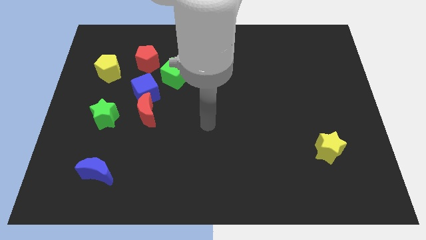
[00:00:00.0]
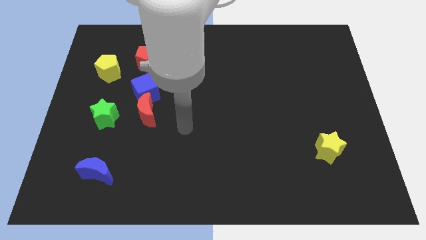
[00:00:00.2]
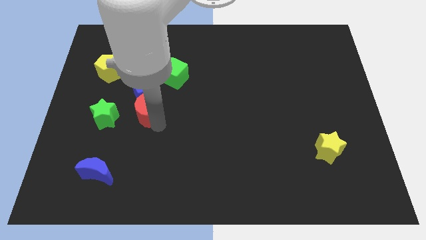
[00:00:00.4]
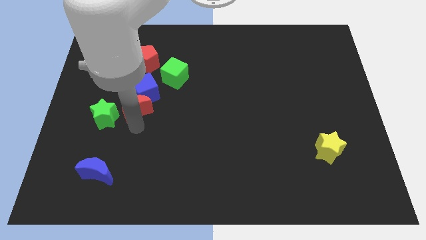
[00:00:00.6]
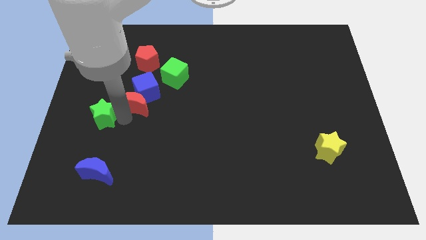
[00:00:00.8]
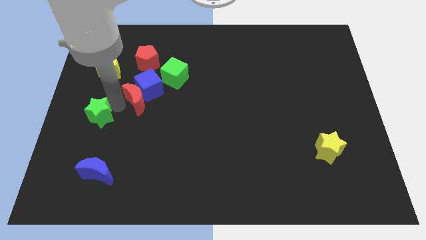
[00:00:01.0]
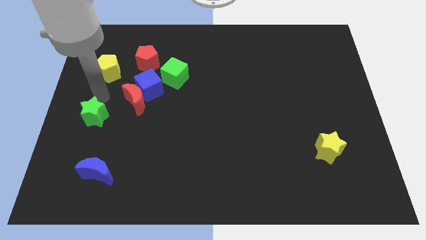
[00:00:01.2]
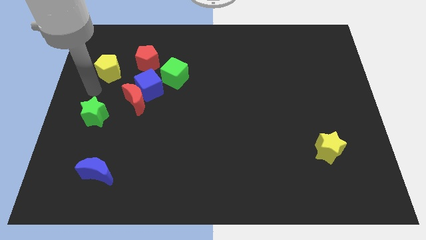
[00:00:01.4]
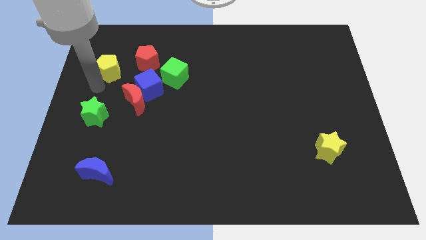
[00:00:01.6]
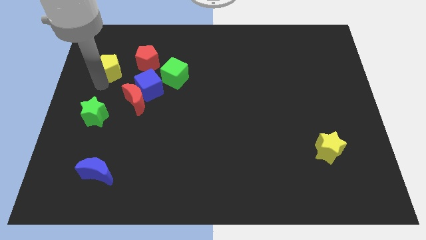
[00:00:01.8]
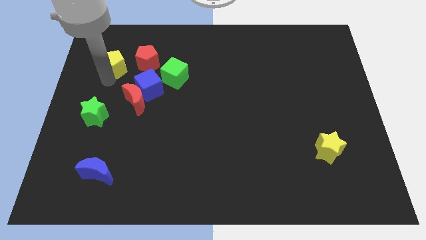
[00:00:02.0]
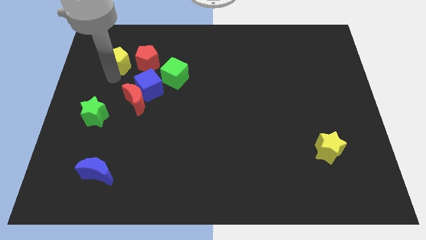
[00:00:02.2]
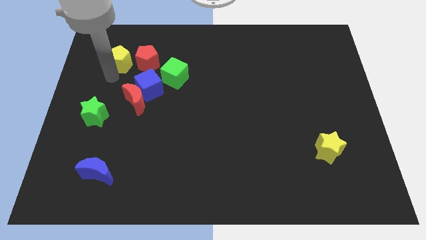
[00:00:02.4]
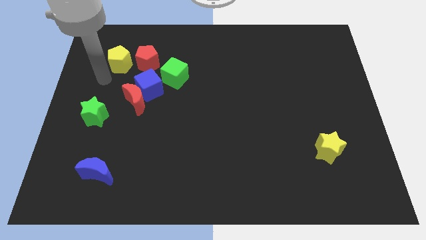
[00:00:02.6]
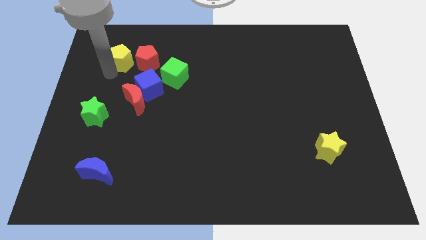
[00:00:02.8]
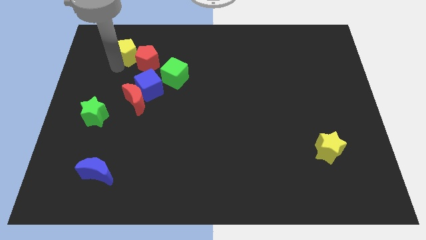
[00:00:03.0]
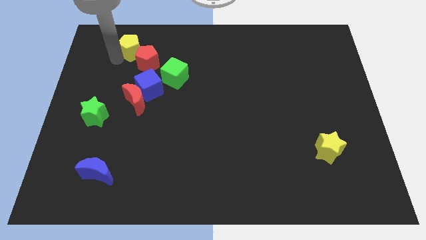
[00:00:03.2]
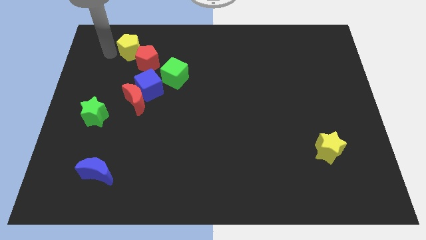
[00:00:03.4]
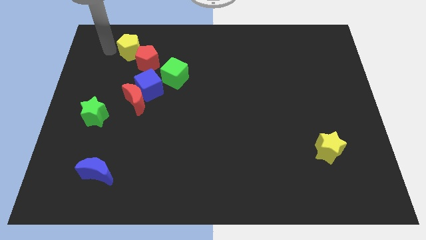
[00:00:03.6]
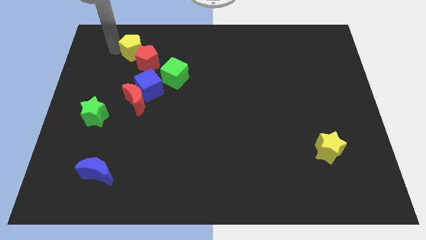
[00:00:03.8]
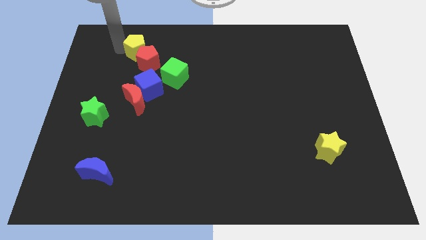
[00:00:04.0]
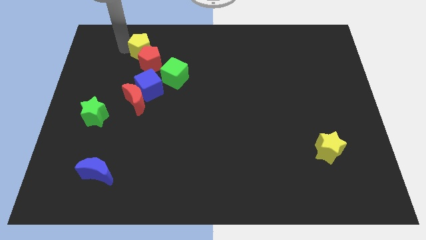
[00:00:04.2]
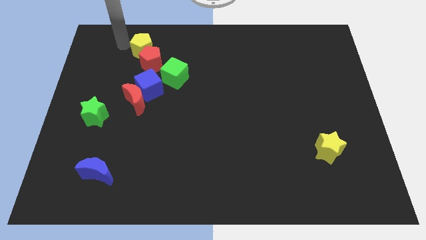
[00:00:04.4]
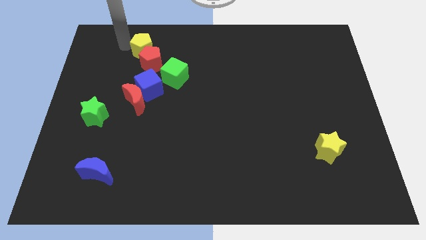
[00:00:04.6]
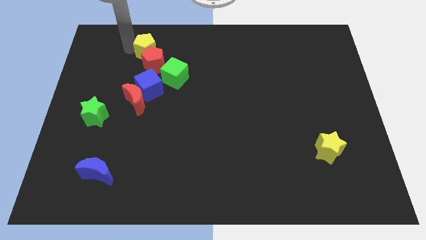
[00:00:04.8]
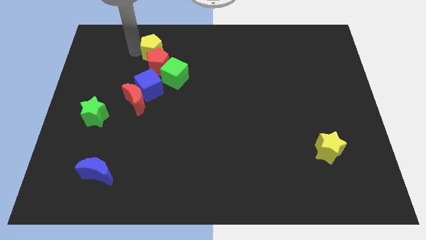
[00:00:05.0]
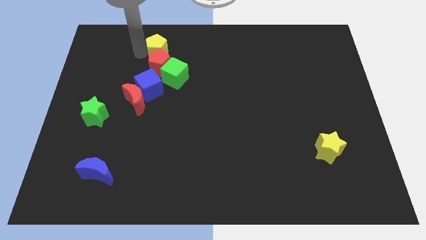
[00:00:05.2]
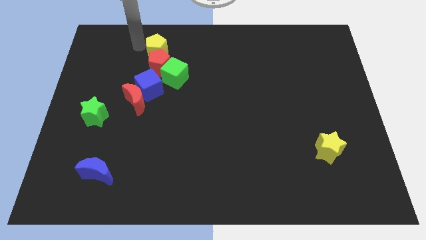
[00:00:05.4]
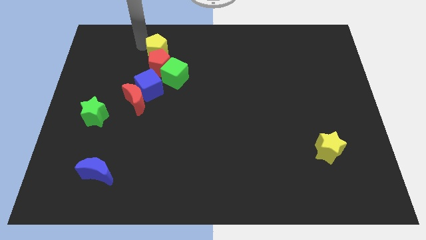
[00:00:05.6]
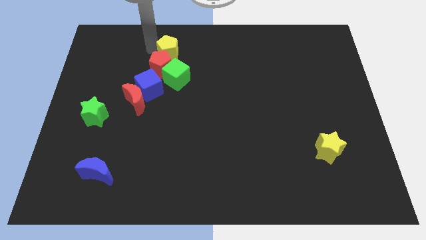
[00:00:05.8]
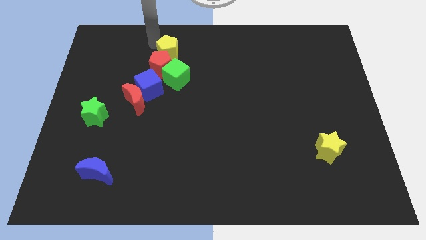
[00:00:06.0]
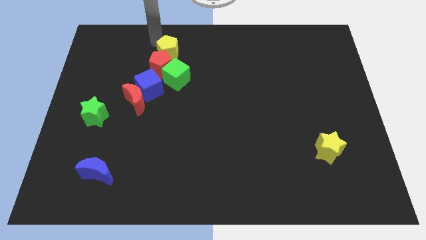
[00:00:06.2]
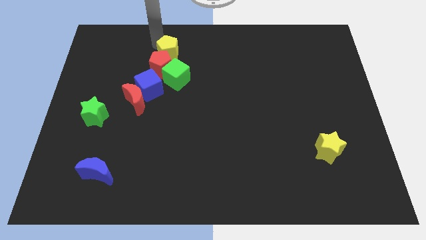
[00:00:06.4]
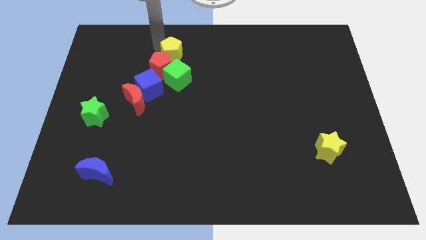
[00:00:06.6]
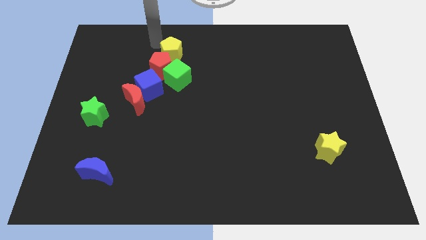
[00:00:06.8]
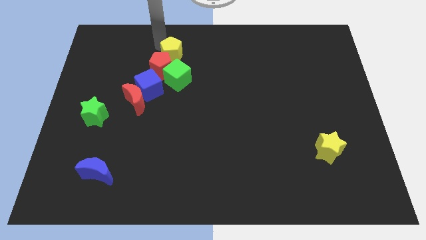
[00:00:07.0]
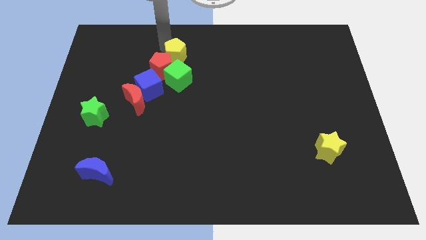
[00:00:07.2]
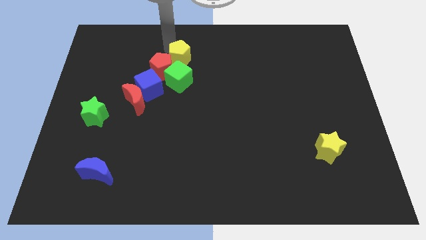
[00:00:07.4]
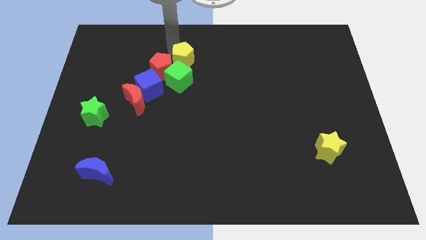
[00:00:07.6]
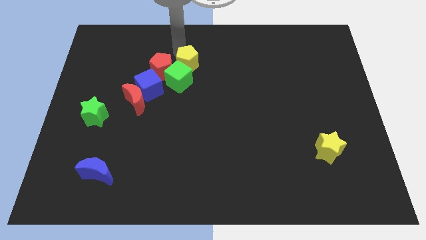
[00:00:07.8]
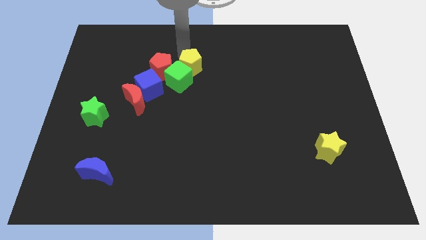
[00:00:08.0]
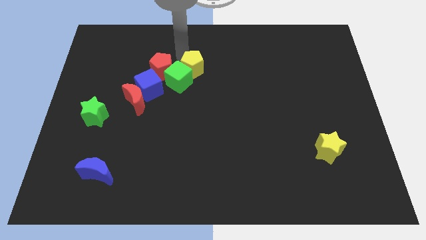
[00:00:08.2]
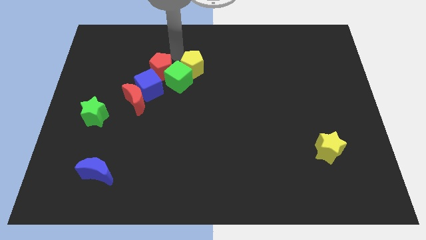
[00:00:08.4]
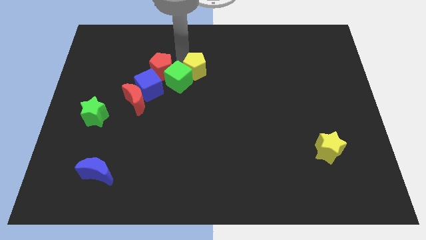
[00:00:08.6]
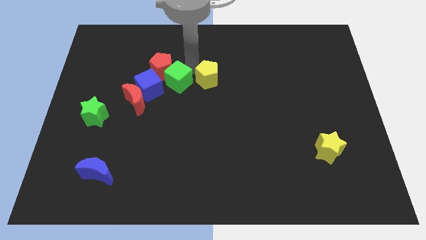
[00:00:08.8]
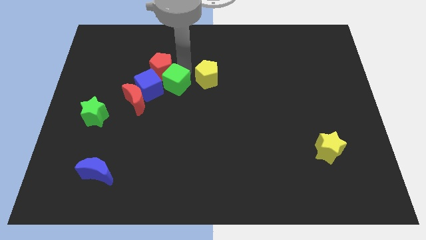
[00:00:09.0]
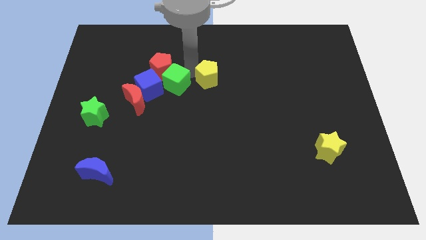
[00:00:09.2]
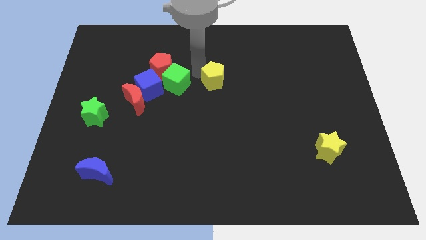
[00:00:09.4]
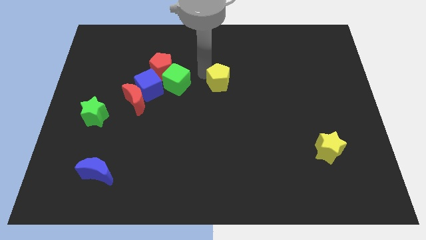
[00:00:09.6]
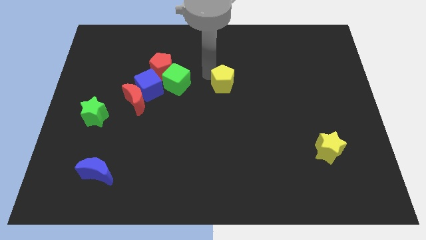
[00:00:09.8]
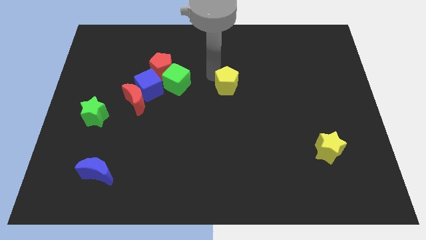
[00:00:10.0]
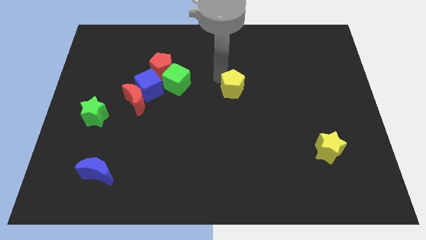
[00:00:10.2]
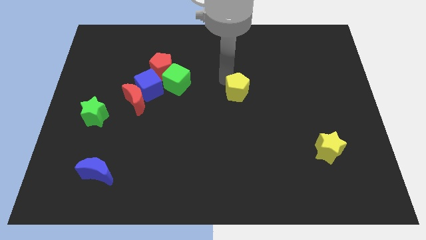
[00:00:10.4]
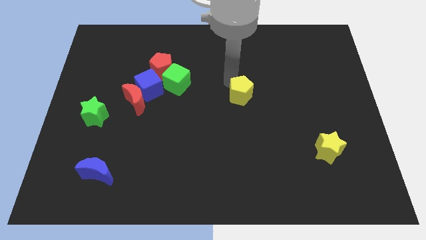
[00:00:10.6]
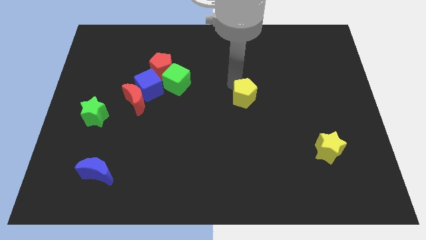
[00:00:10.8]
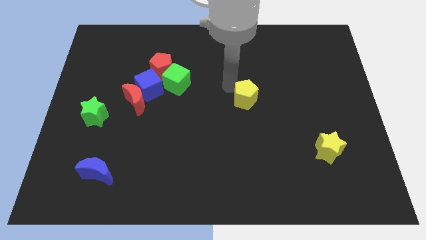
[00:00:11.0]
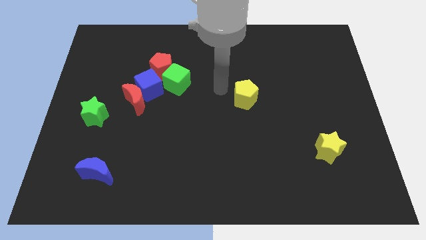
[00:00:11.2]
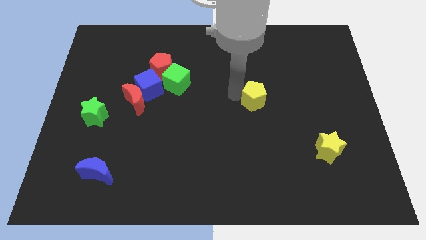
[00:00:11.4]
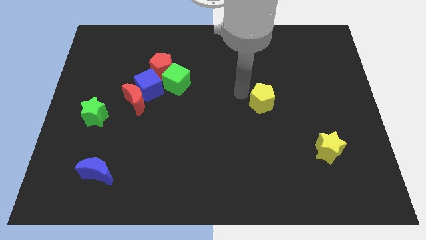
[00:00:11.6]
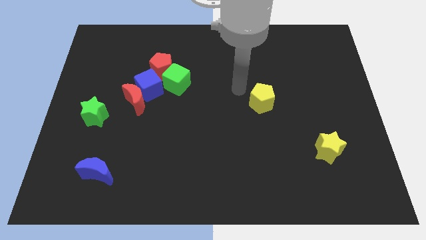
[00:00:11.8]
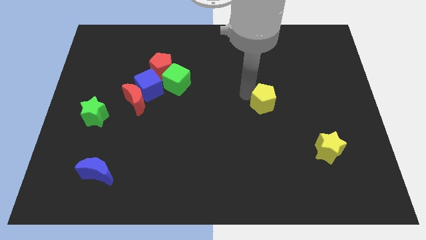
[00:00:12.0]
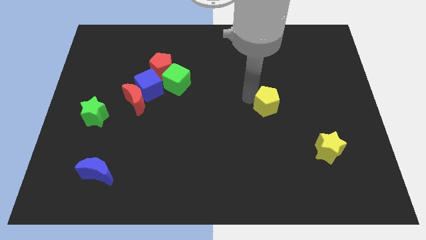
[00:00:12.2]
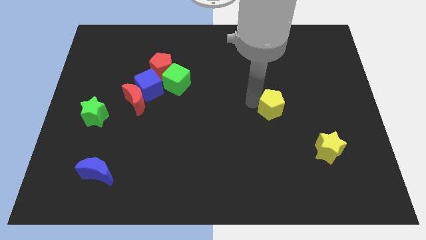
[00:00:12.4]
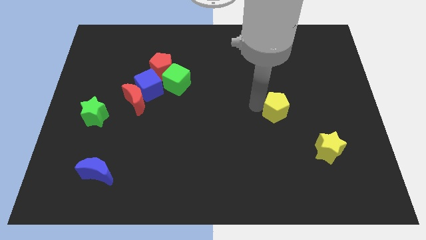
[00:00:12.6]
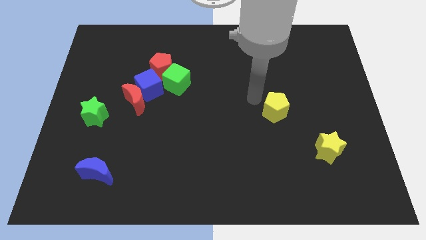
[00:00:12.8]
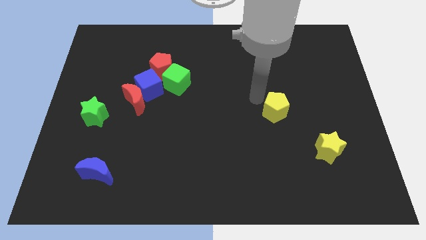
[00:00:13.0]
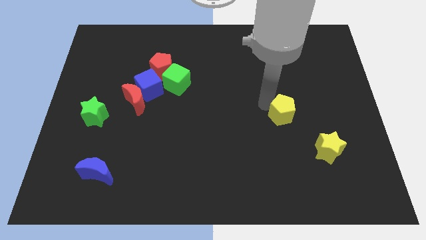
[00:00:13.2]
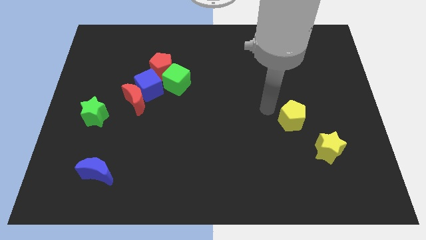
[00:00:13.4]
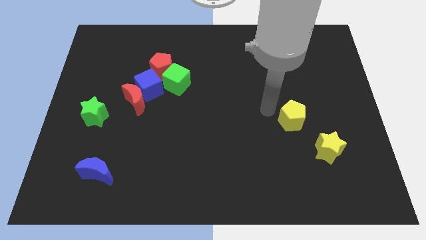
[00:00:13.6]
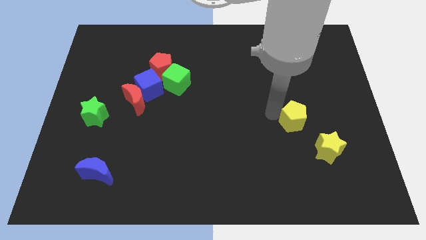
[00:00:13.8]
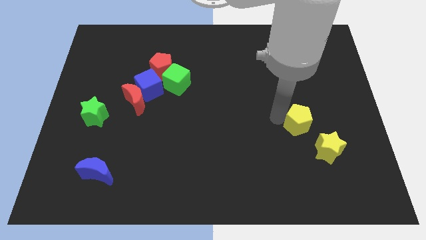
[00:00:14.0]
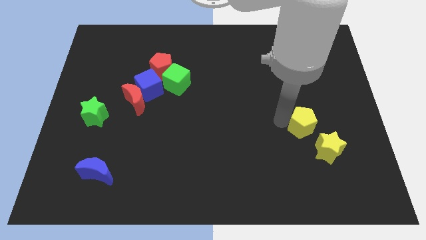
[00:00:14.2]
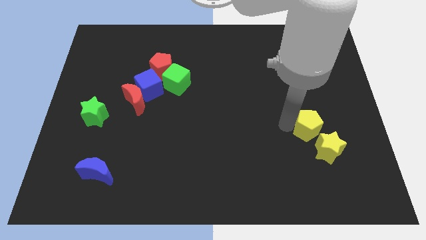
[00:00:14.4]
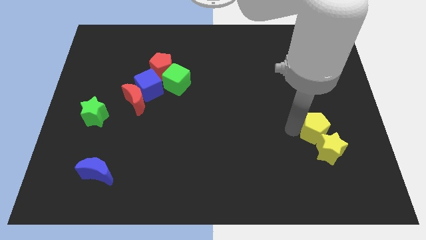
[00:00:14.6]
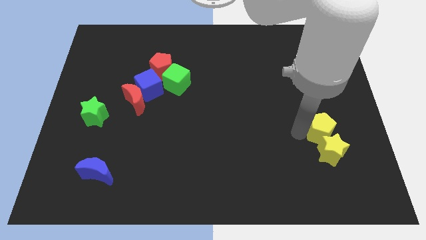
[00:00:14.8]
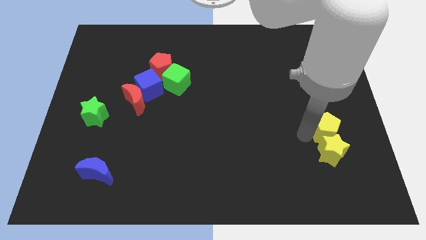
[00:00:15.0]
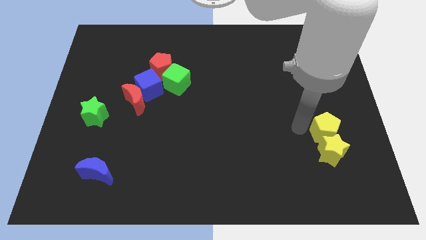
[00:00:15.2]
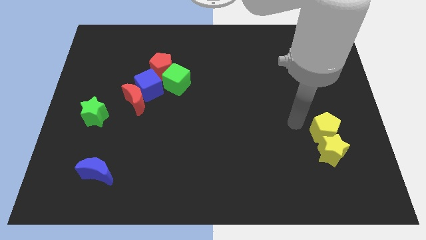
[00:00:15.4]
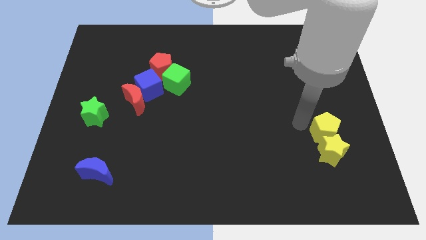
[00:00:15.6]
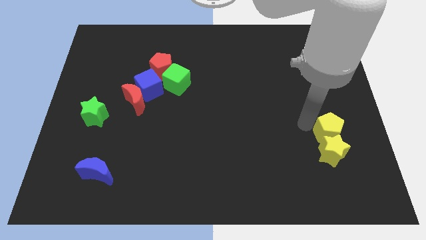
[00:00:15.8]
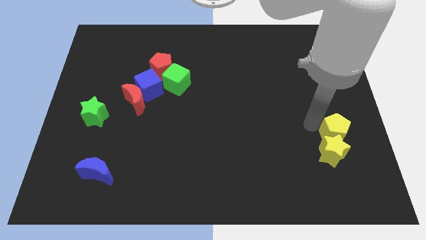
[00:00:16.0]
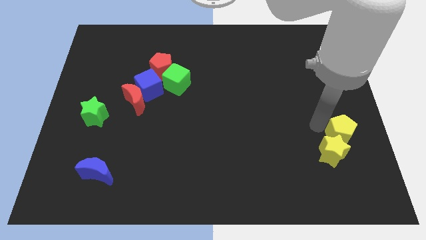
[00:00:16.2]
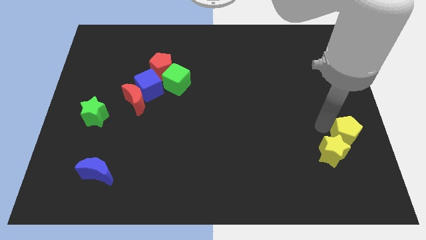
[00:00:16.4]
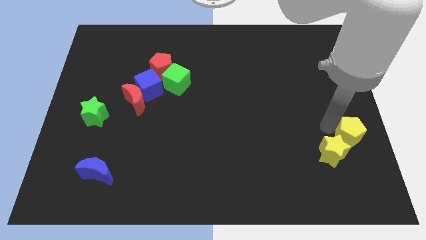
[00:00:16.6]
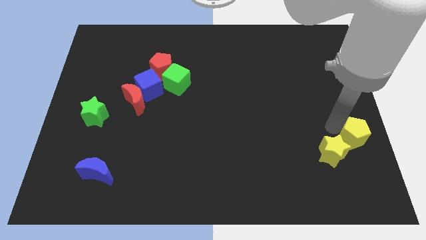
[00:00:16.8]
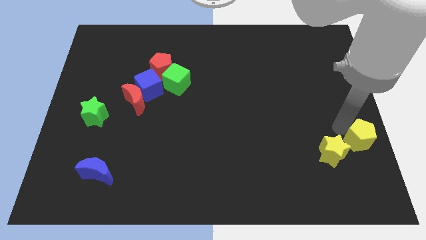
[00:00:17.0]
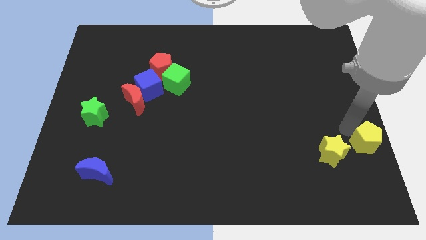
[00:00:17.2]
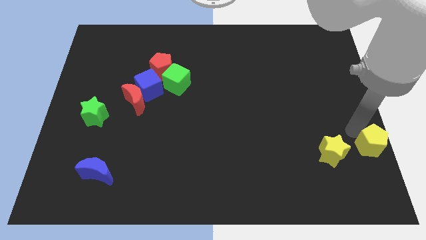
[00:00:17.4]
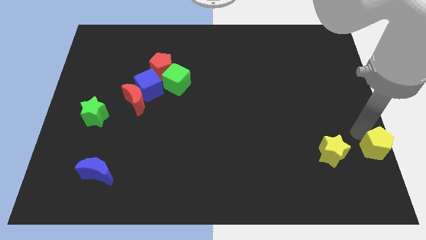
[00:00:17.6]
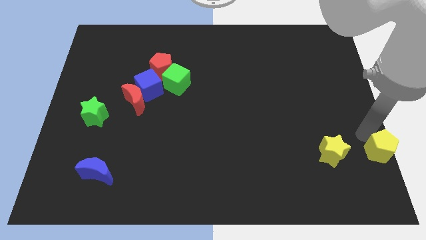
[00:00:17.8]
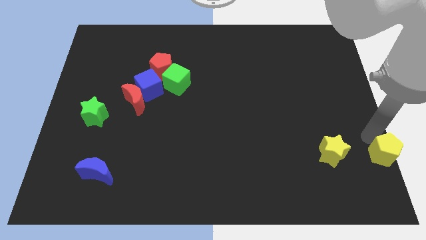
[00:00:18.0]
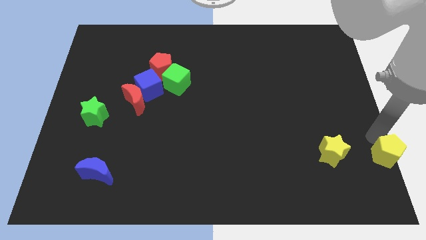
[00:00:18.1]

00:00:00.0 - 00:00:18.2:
put the yellow pentagon to the bottom right corner
